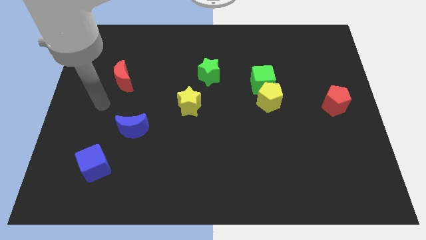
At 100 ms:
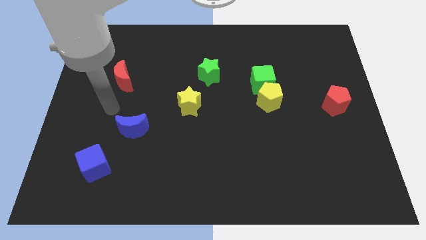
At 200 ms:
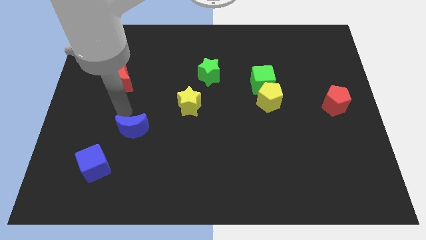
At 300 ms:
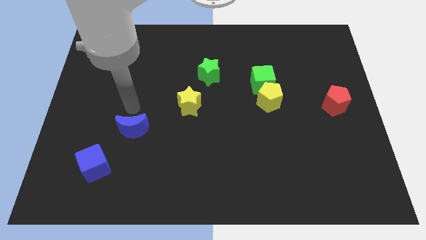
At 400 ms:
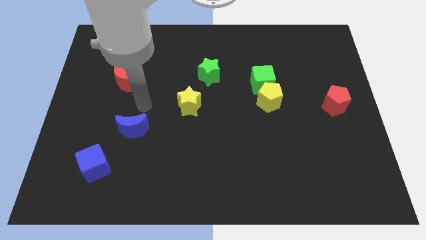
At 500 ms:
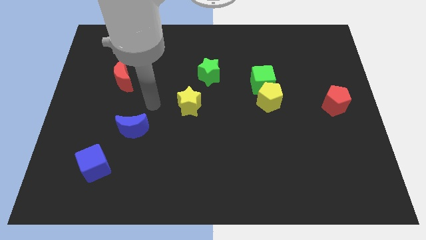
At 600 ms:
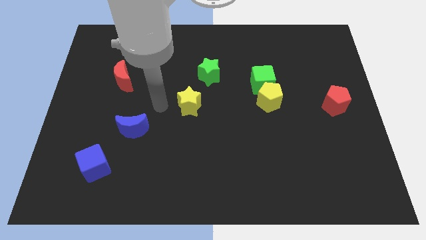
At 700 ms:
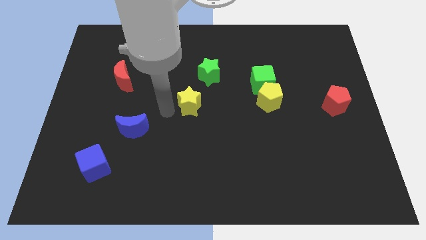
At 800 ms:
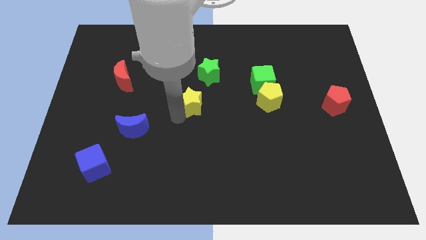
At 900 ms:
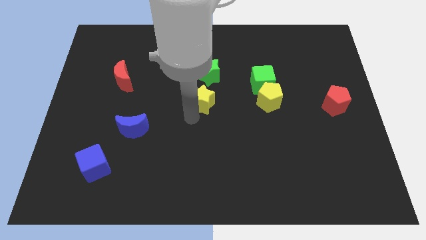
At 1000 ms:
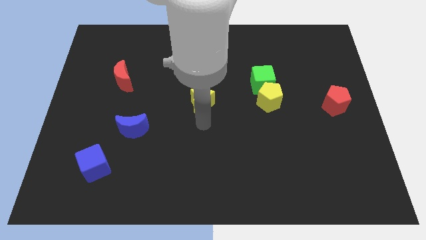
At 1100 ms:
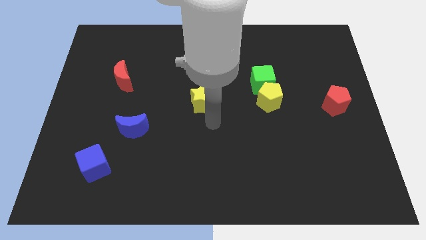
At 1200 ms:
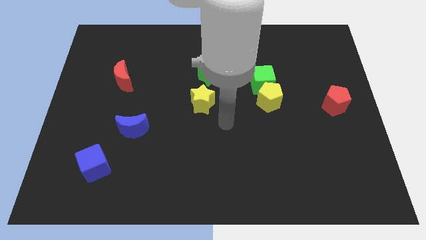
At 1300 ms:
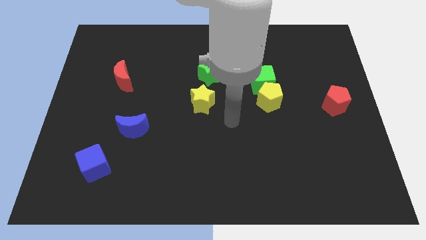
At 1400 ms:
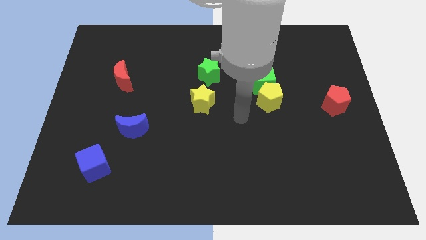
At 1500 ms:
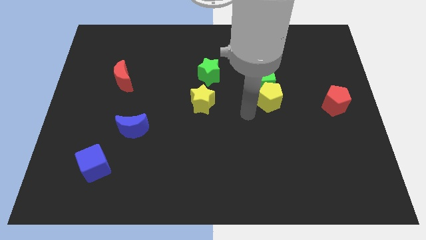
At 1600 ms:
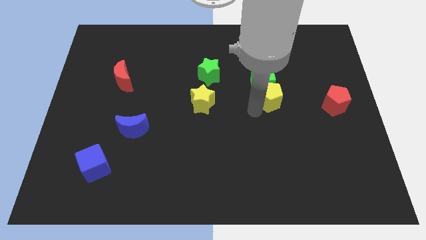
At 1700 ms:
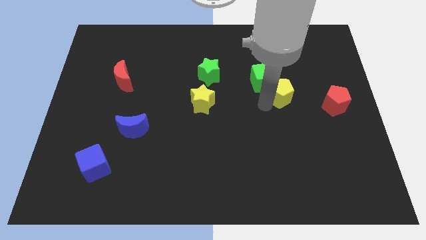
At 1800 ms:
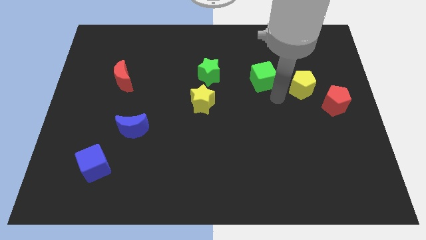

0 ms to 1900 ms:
move the green cube away from the yellow pentagon

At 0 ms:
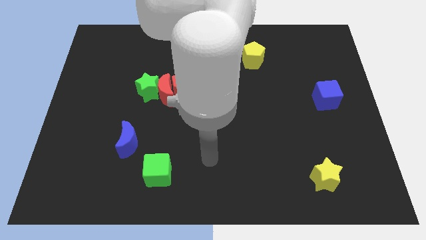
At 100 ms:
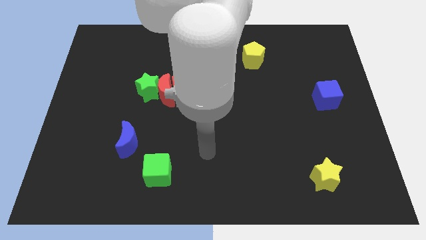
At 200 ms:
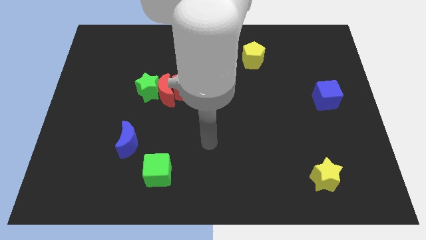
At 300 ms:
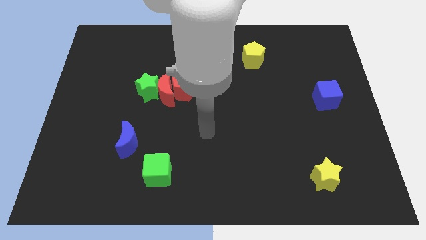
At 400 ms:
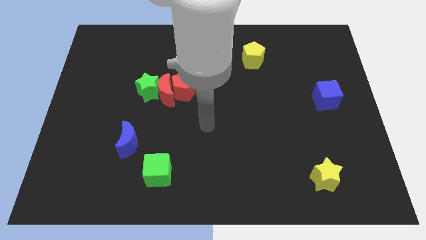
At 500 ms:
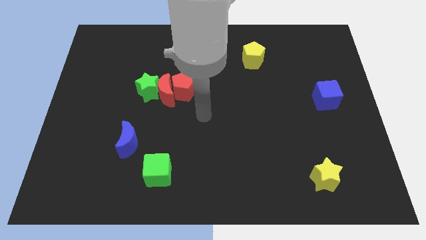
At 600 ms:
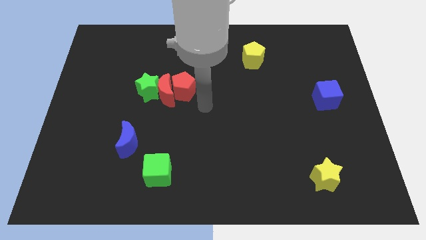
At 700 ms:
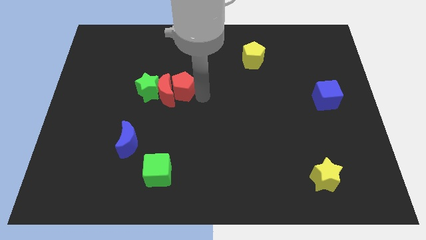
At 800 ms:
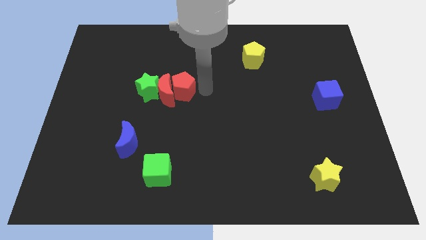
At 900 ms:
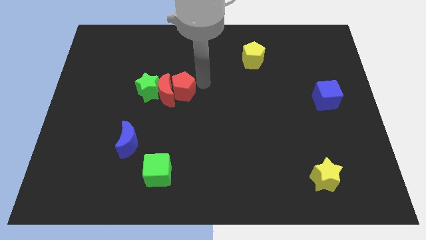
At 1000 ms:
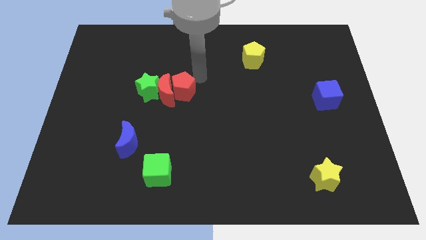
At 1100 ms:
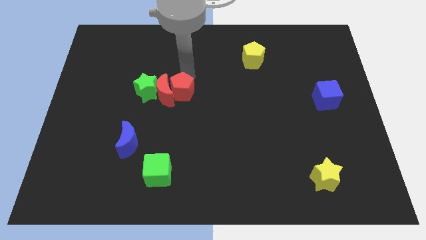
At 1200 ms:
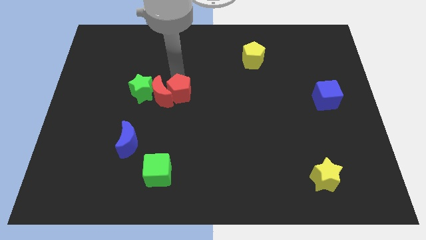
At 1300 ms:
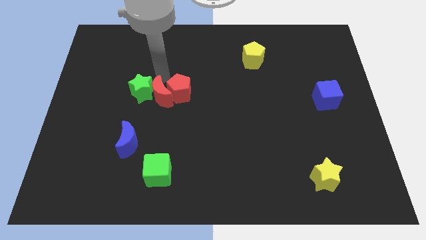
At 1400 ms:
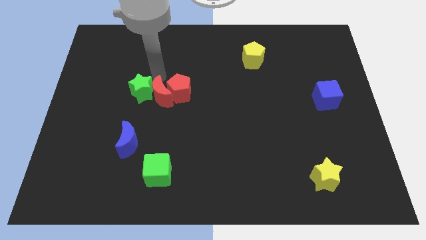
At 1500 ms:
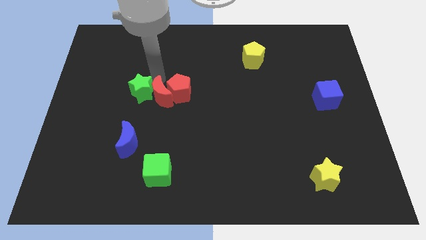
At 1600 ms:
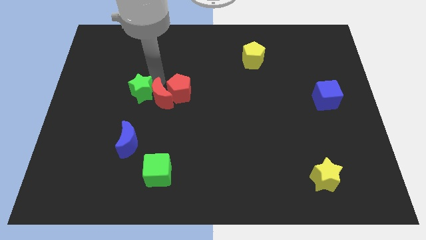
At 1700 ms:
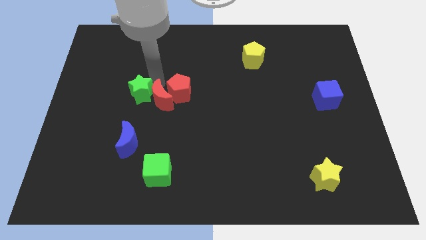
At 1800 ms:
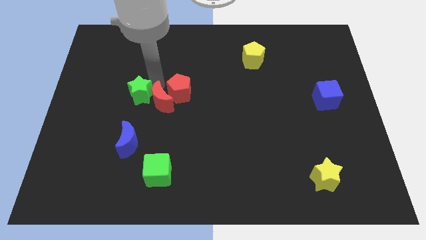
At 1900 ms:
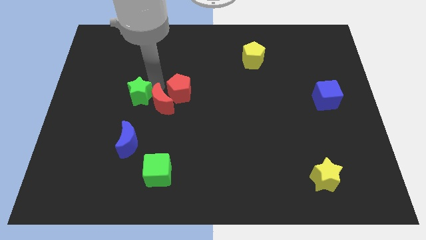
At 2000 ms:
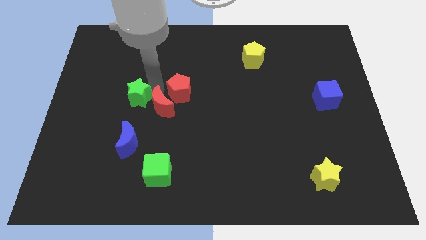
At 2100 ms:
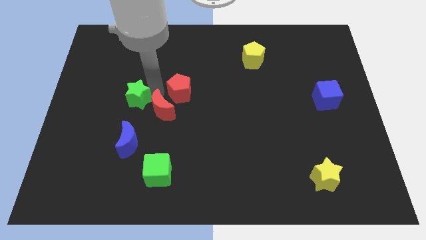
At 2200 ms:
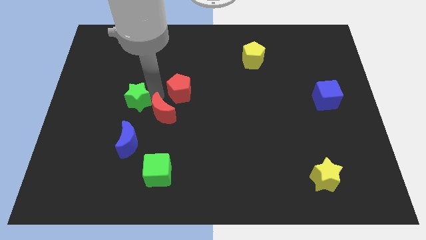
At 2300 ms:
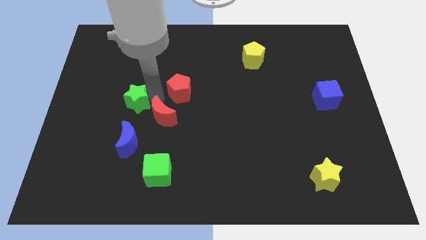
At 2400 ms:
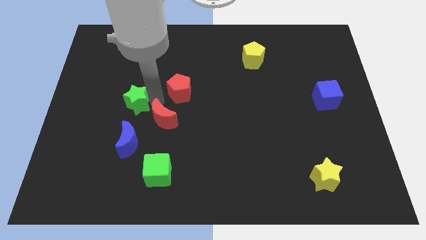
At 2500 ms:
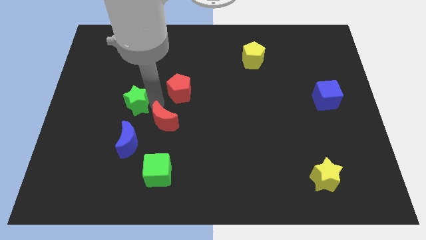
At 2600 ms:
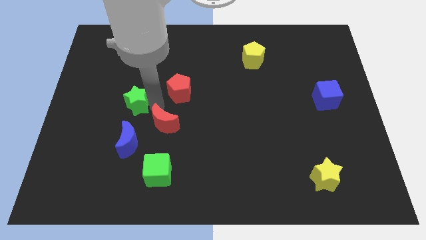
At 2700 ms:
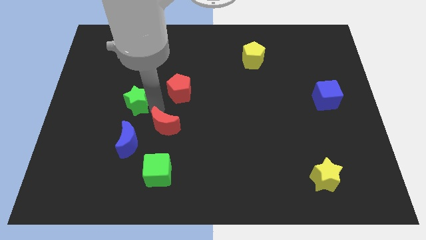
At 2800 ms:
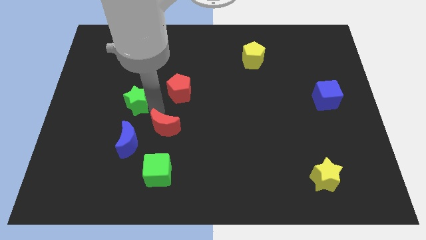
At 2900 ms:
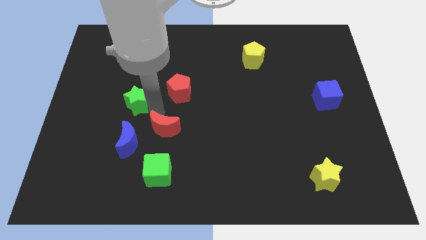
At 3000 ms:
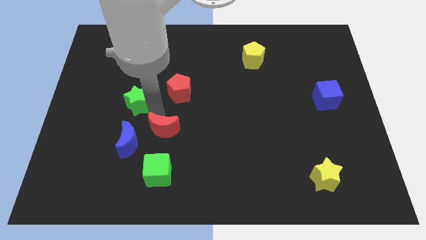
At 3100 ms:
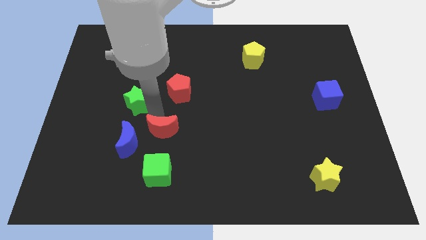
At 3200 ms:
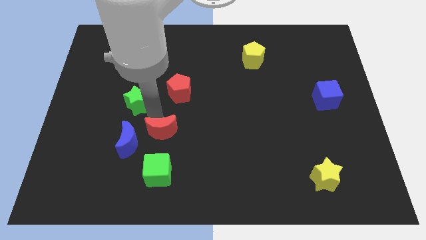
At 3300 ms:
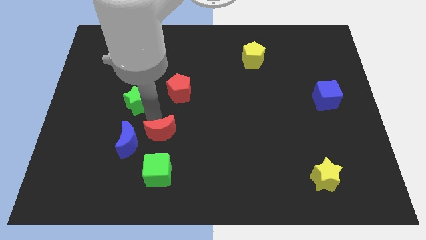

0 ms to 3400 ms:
separate the red moon from the green star and red pentagon

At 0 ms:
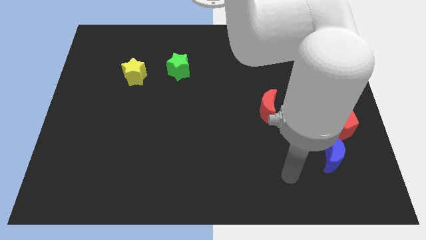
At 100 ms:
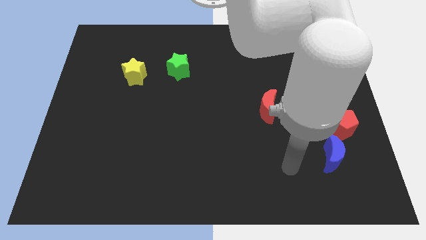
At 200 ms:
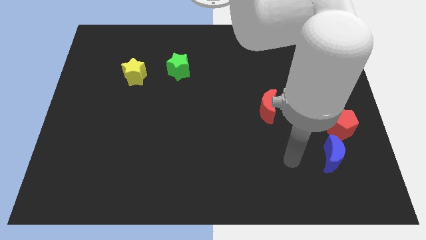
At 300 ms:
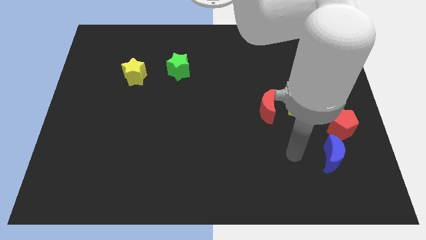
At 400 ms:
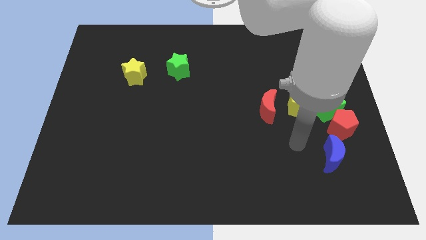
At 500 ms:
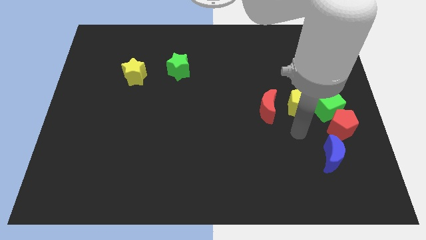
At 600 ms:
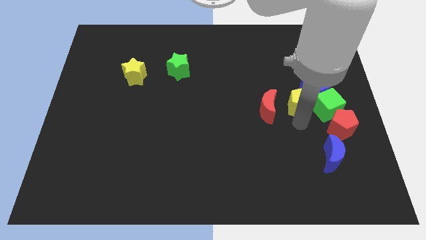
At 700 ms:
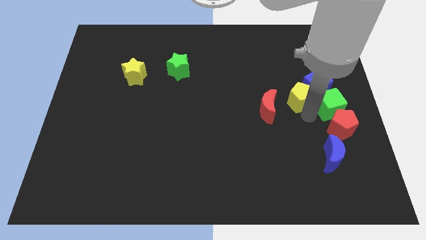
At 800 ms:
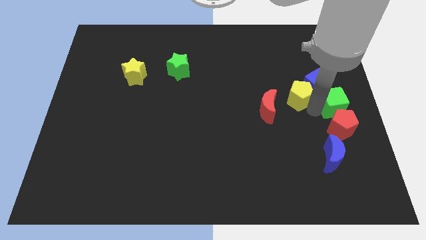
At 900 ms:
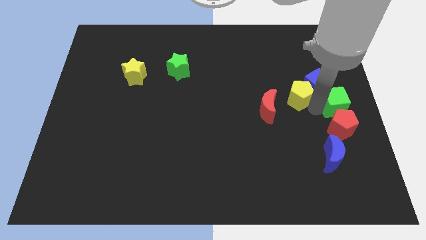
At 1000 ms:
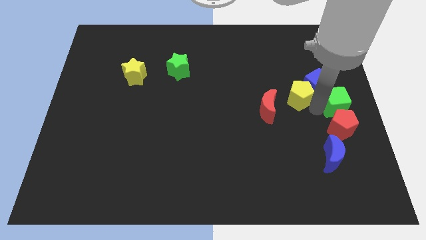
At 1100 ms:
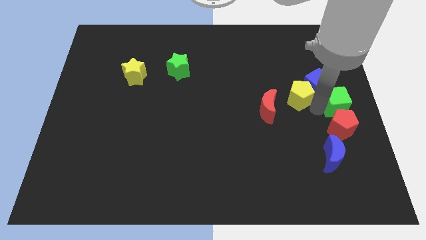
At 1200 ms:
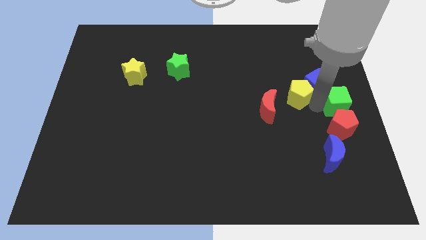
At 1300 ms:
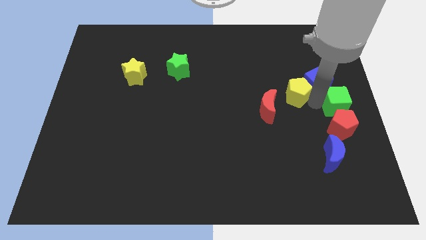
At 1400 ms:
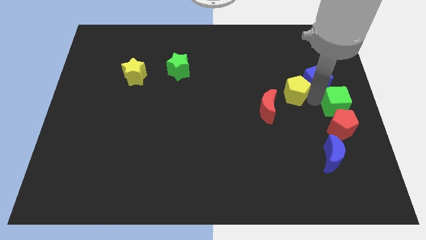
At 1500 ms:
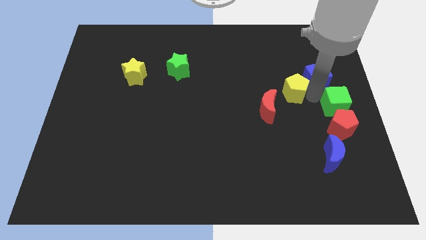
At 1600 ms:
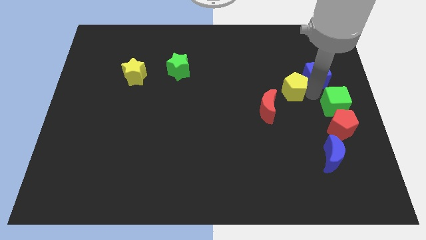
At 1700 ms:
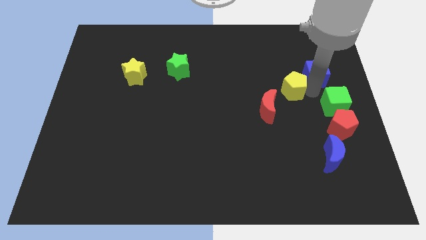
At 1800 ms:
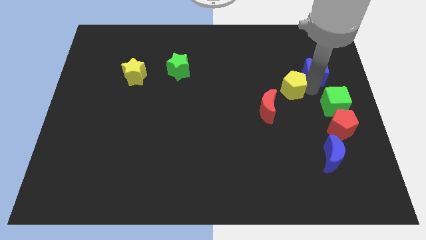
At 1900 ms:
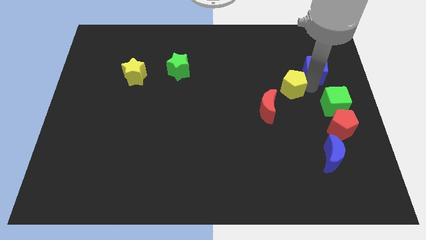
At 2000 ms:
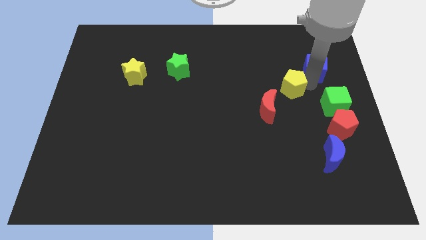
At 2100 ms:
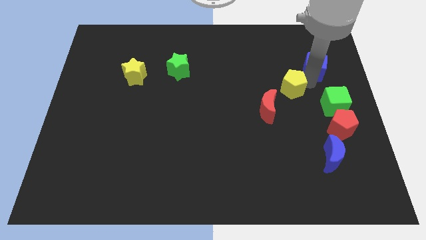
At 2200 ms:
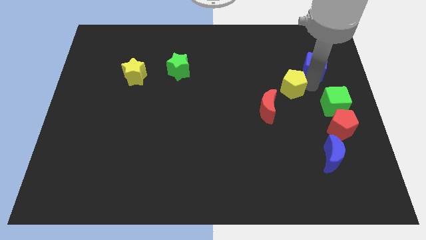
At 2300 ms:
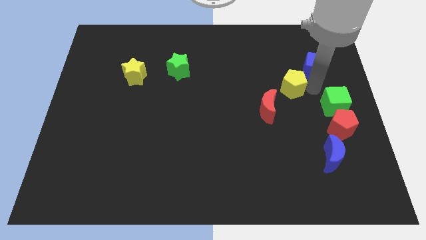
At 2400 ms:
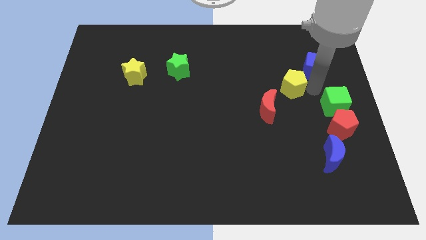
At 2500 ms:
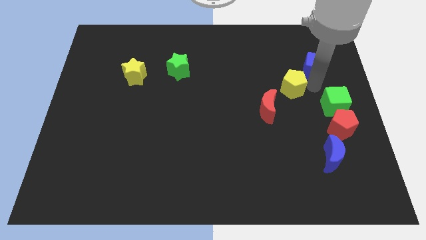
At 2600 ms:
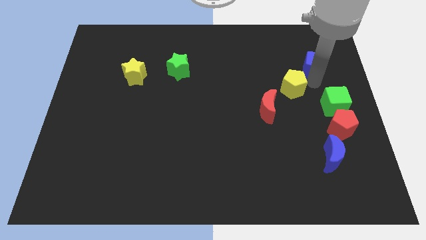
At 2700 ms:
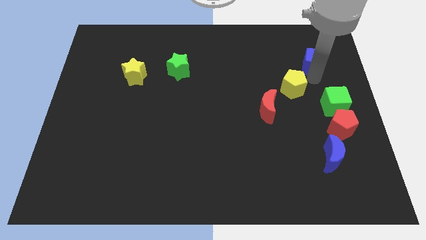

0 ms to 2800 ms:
move the blue cube away from the green cube and yellow pentagon

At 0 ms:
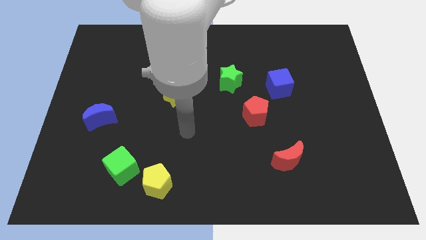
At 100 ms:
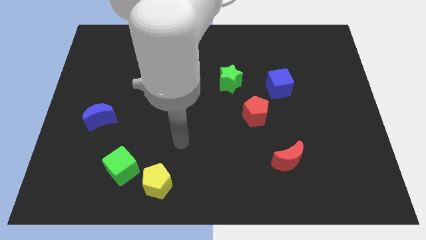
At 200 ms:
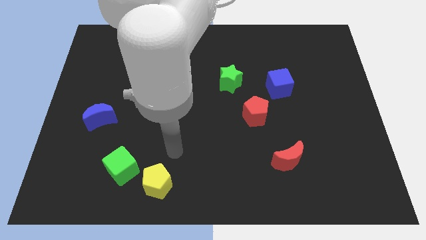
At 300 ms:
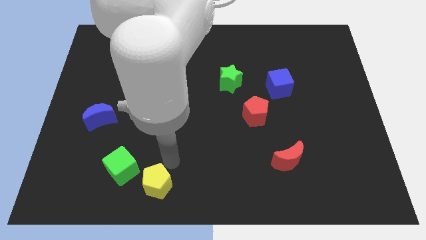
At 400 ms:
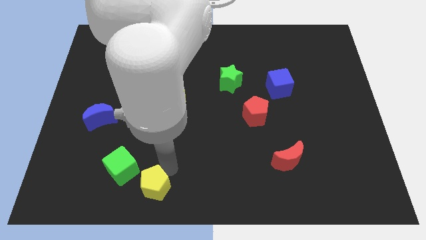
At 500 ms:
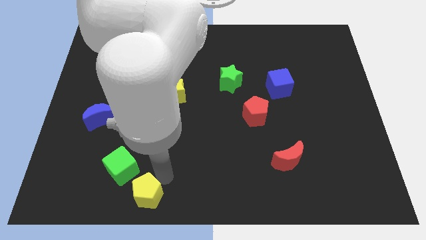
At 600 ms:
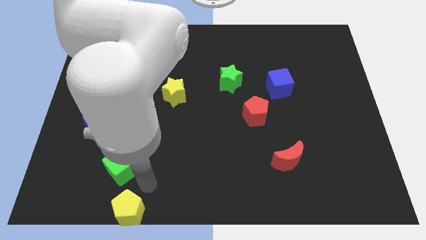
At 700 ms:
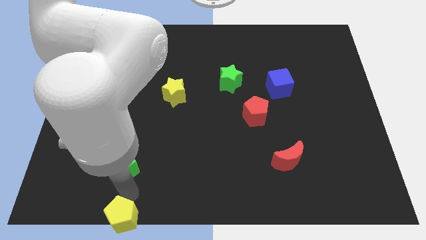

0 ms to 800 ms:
pull the green cube apart from the yellow pentagon

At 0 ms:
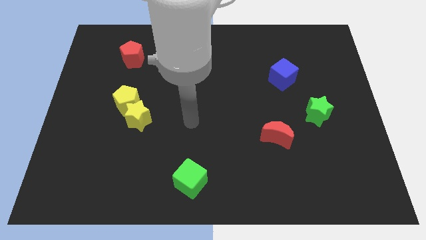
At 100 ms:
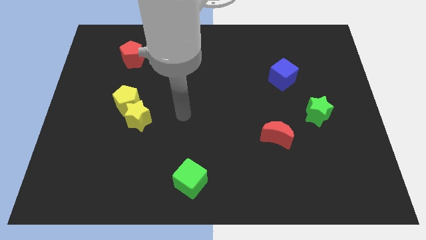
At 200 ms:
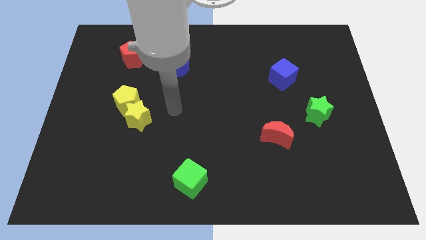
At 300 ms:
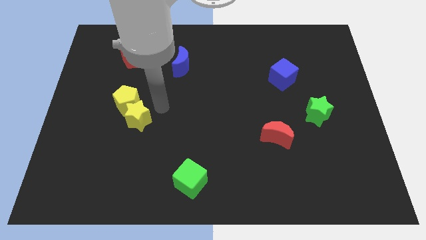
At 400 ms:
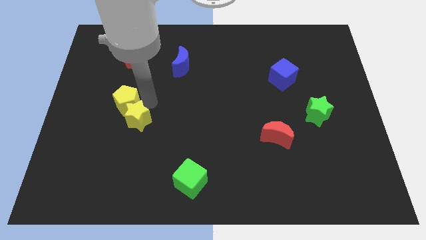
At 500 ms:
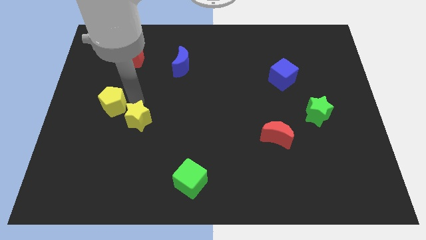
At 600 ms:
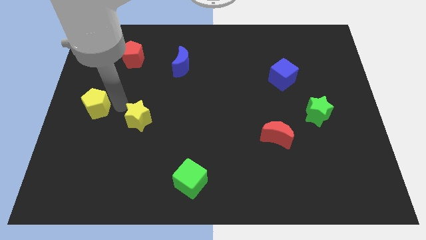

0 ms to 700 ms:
pull the yellow star apart from the yellow pentagon
